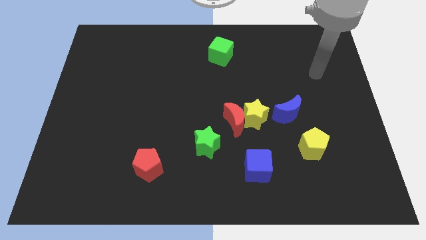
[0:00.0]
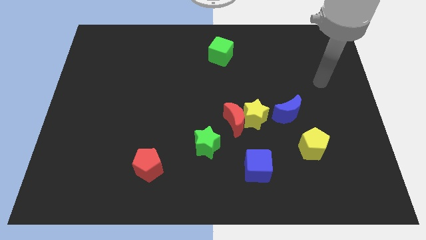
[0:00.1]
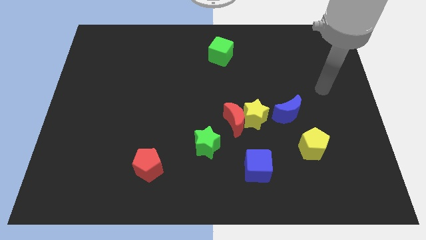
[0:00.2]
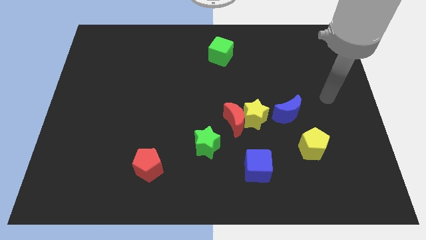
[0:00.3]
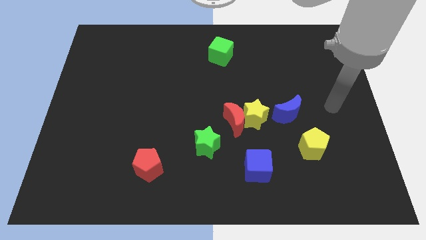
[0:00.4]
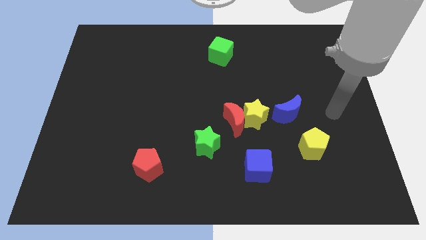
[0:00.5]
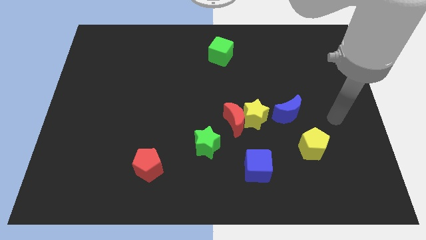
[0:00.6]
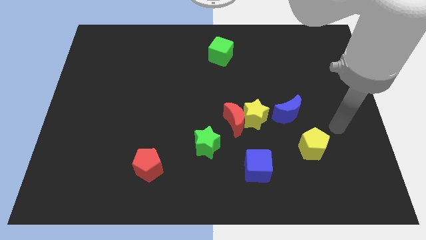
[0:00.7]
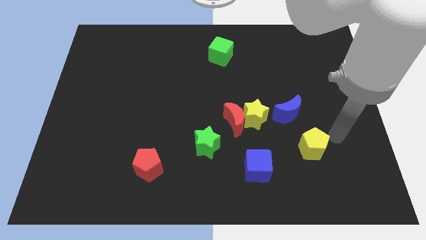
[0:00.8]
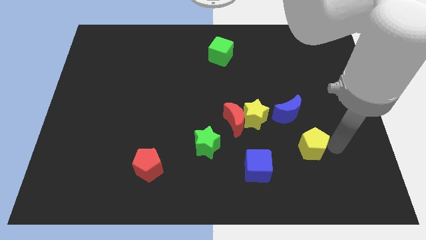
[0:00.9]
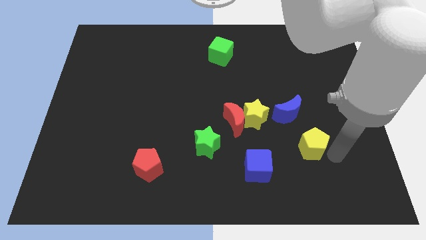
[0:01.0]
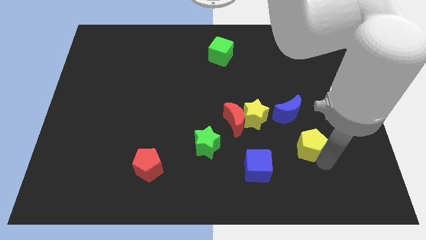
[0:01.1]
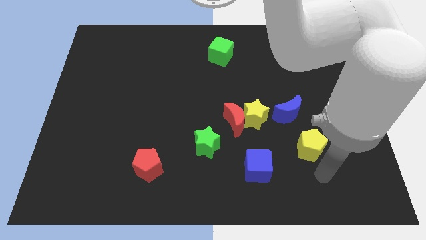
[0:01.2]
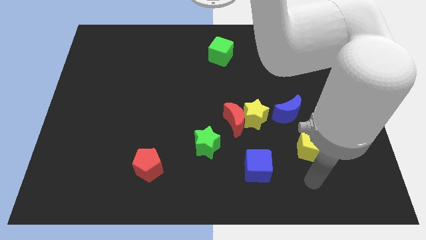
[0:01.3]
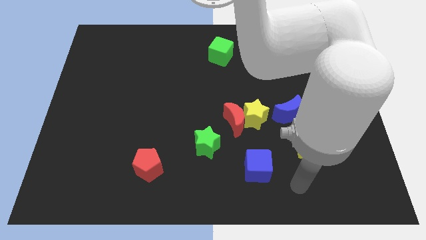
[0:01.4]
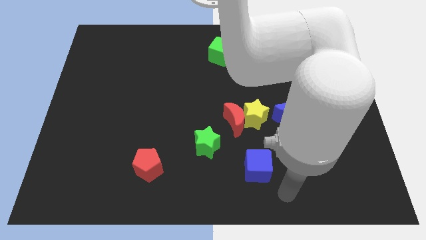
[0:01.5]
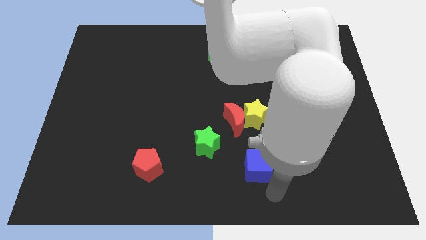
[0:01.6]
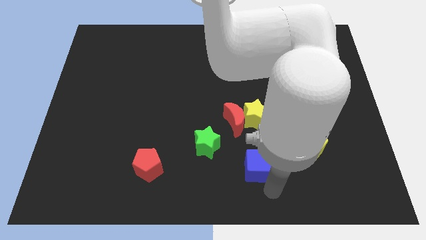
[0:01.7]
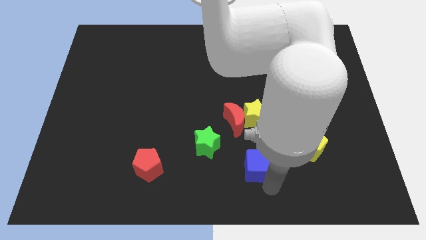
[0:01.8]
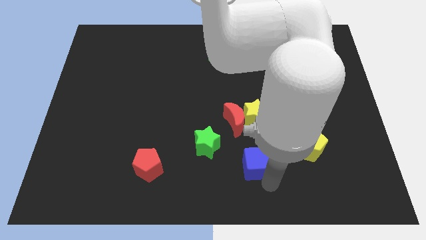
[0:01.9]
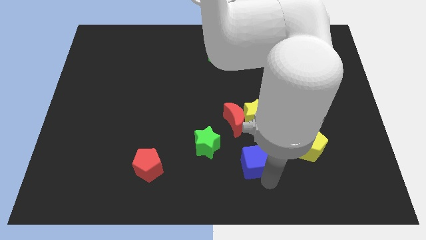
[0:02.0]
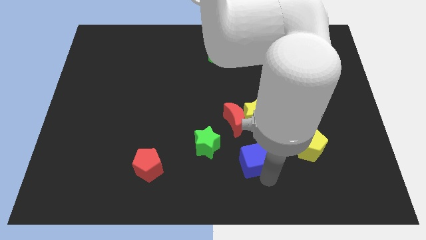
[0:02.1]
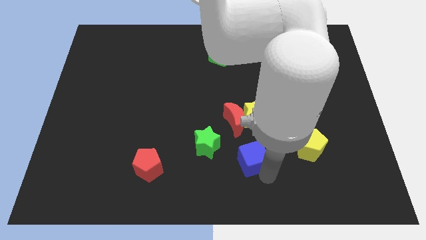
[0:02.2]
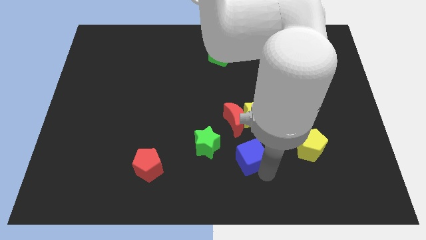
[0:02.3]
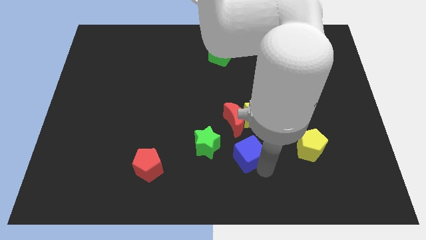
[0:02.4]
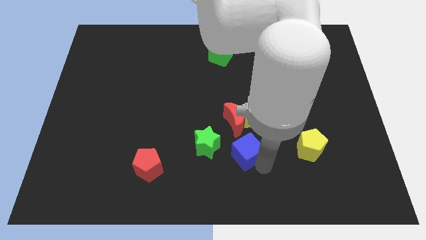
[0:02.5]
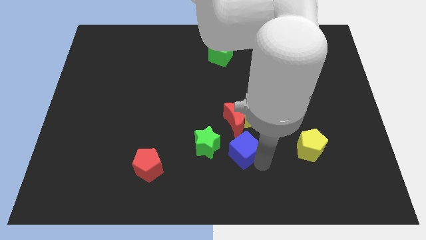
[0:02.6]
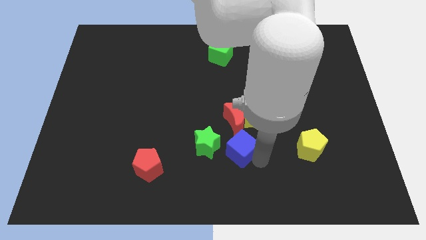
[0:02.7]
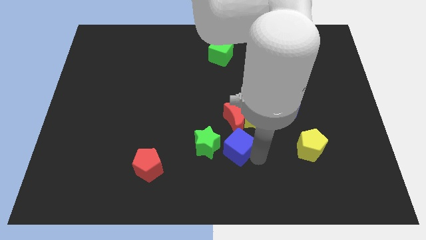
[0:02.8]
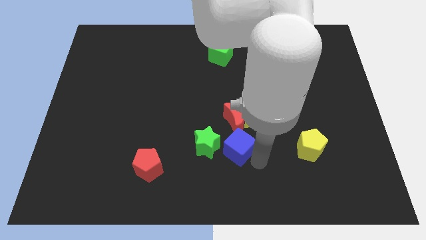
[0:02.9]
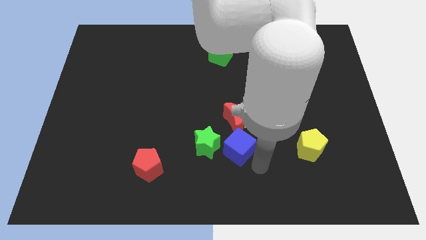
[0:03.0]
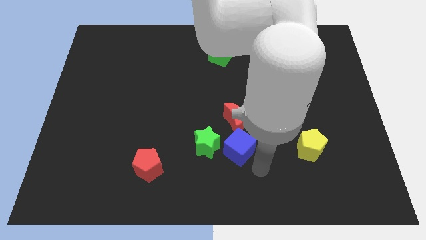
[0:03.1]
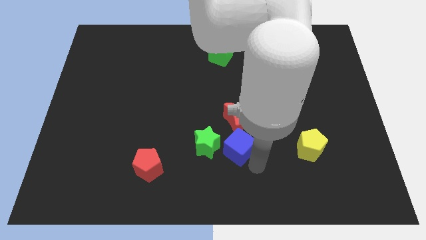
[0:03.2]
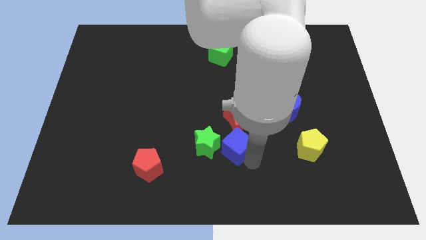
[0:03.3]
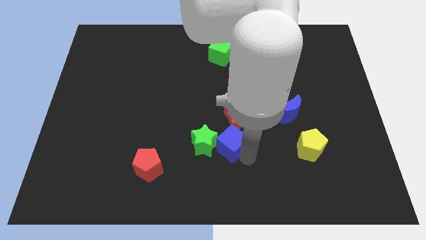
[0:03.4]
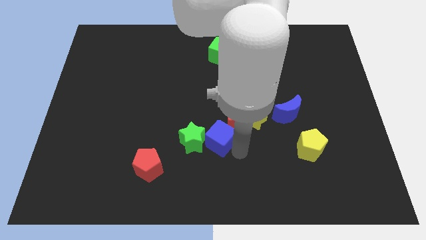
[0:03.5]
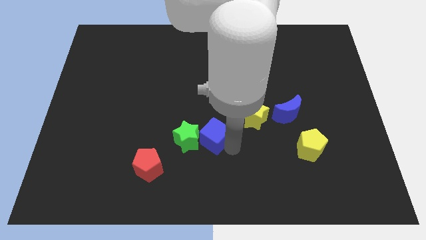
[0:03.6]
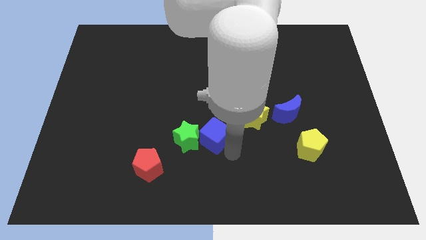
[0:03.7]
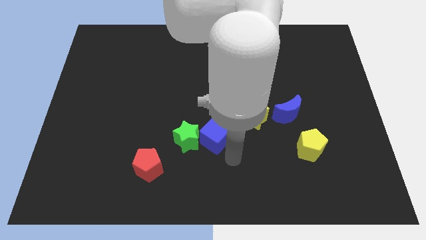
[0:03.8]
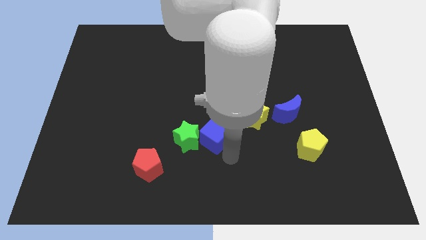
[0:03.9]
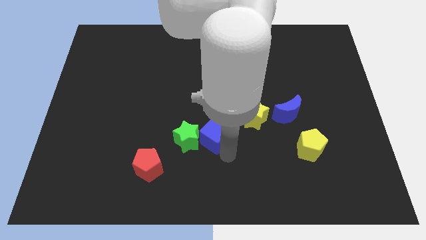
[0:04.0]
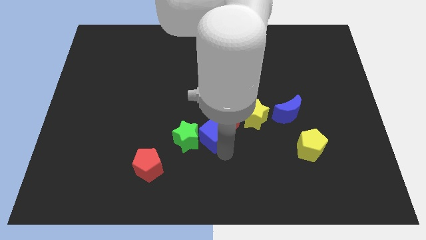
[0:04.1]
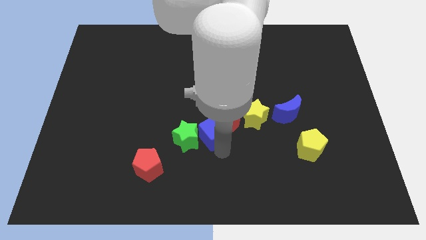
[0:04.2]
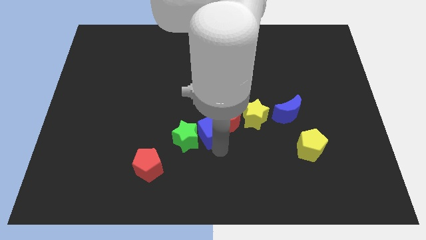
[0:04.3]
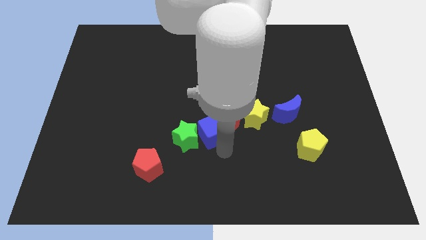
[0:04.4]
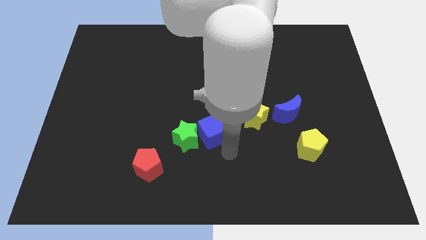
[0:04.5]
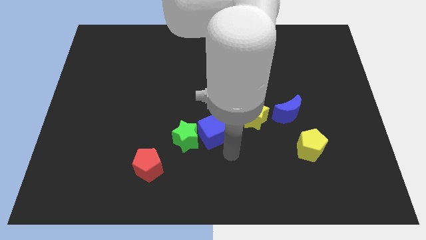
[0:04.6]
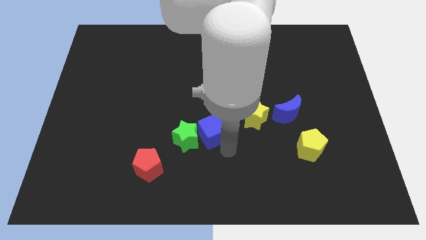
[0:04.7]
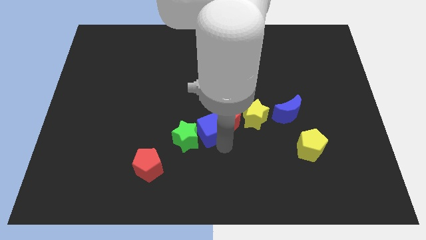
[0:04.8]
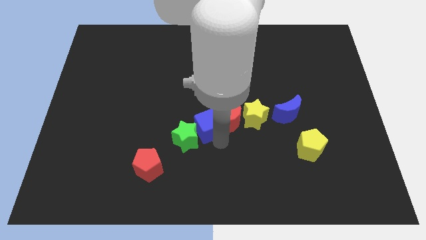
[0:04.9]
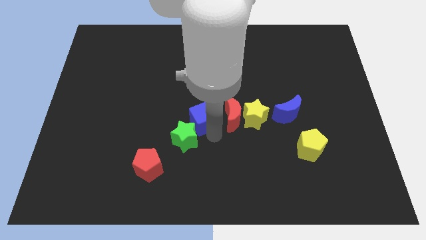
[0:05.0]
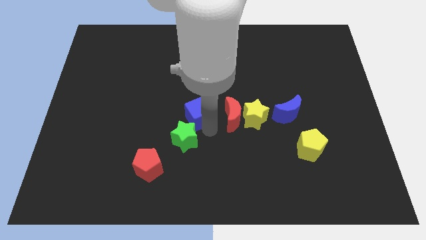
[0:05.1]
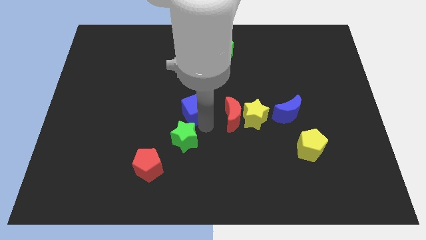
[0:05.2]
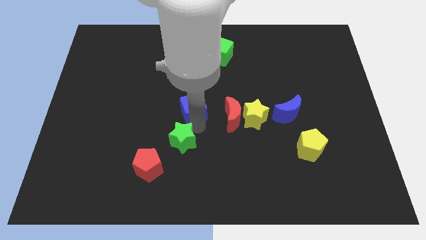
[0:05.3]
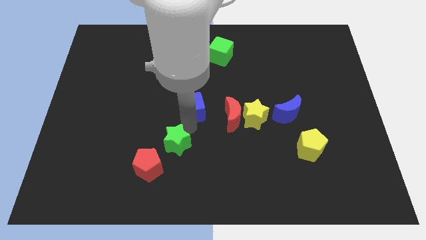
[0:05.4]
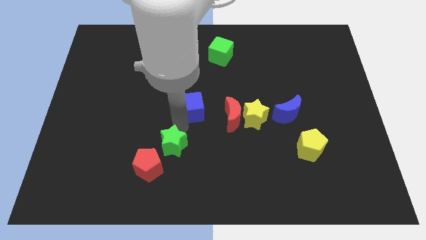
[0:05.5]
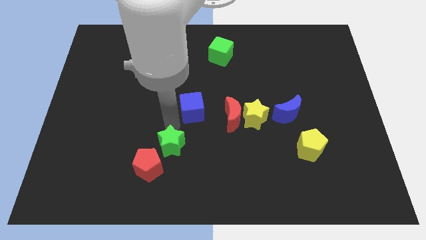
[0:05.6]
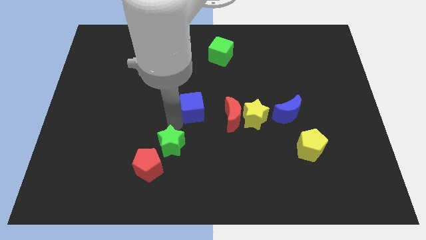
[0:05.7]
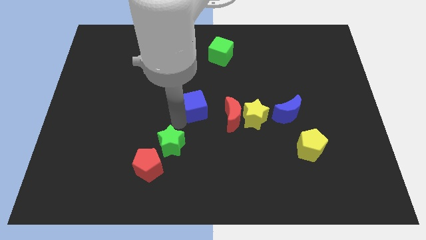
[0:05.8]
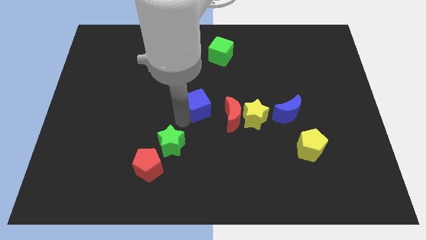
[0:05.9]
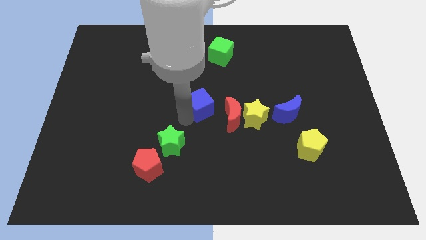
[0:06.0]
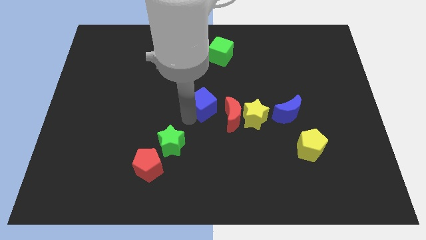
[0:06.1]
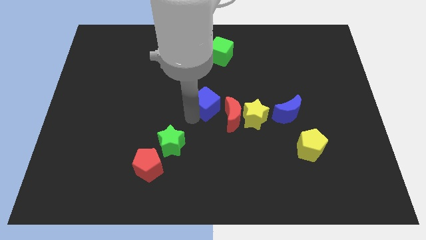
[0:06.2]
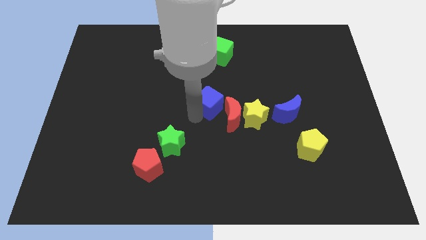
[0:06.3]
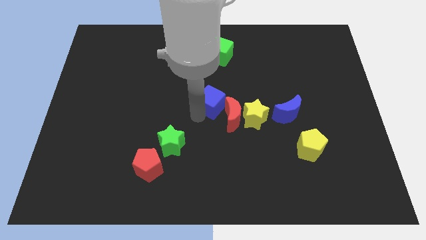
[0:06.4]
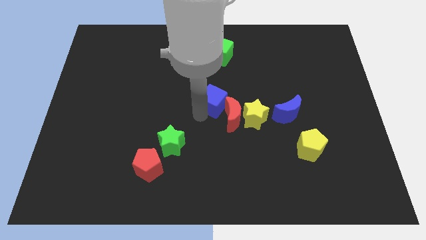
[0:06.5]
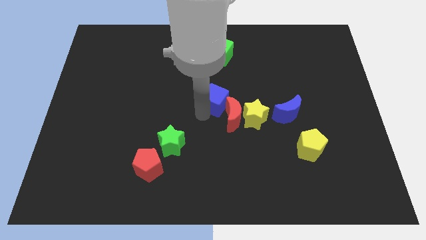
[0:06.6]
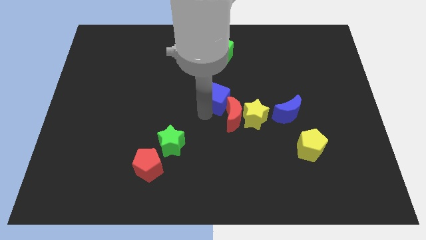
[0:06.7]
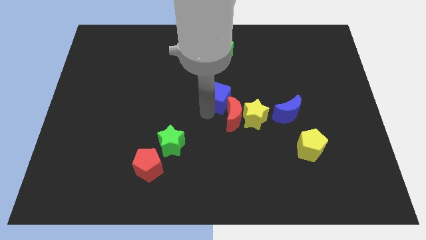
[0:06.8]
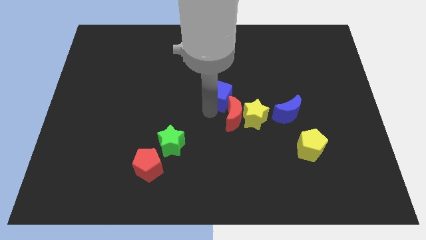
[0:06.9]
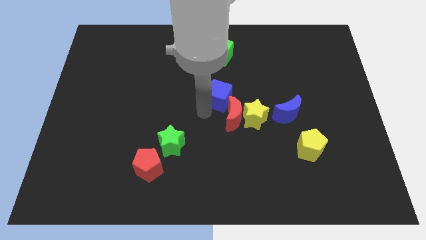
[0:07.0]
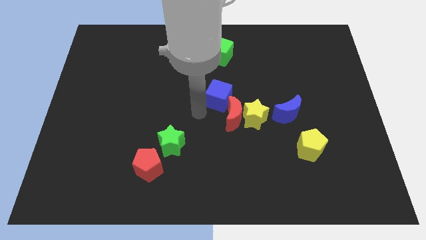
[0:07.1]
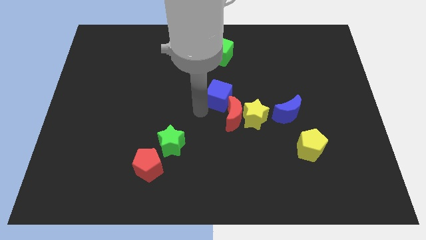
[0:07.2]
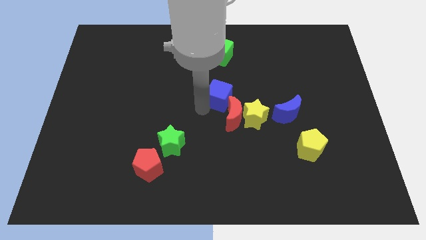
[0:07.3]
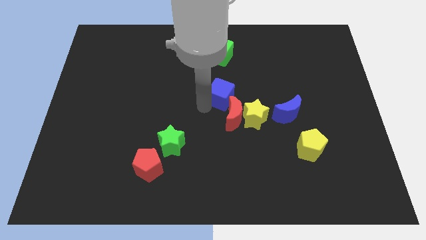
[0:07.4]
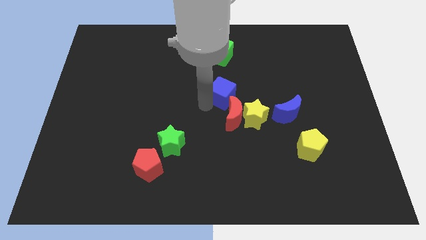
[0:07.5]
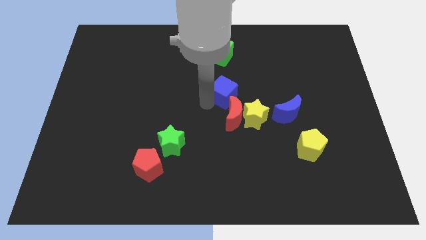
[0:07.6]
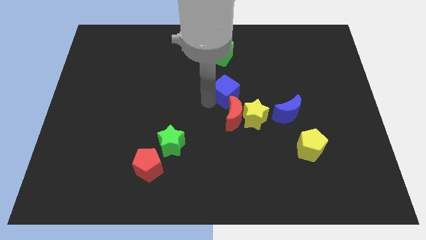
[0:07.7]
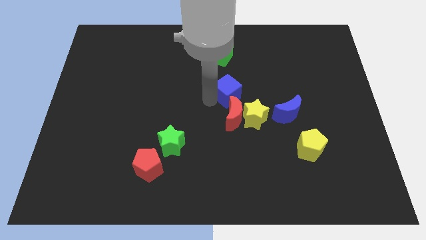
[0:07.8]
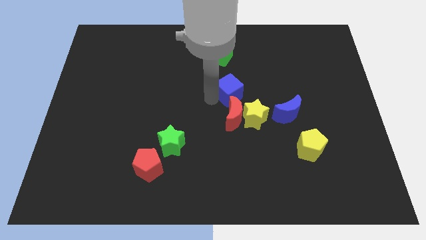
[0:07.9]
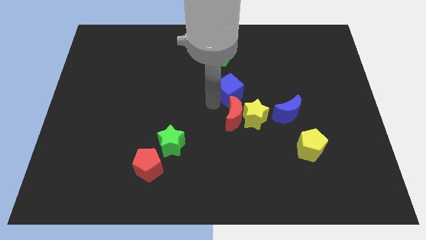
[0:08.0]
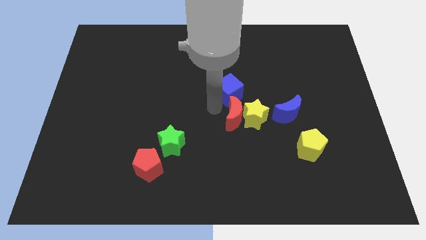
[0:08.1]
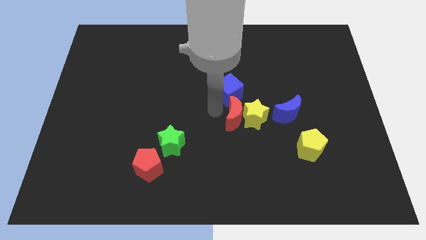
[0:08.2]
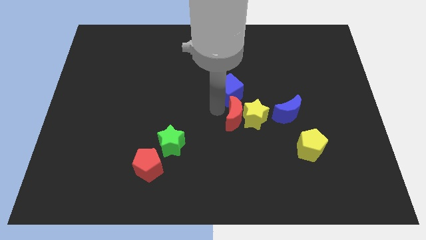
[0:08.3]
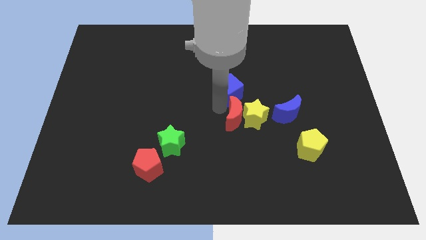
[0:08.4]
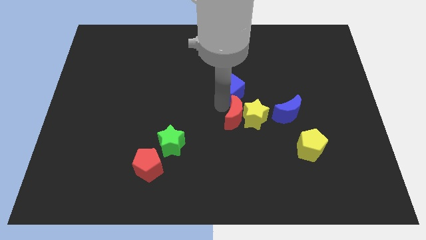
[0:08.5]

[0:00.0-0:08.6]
push the blue cube upwards
